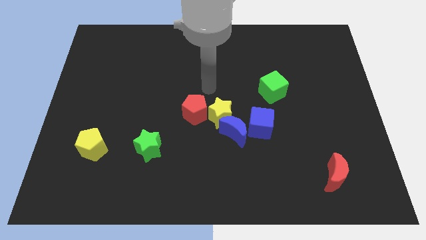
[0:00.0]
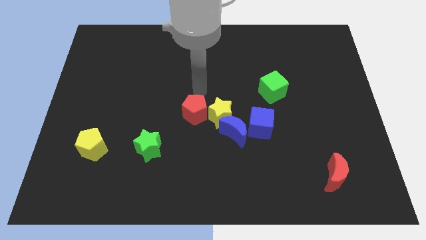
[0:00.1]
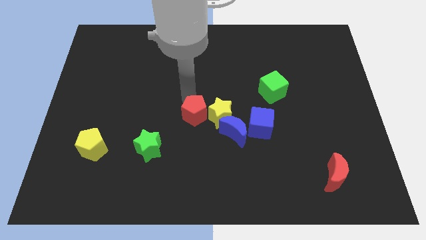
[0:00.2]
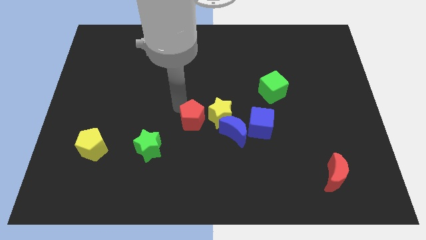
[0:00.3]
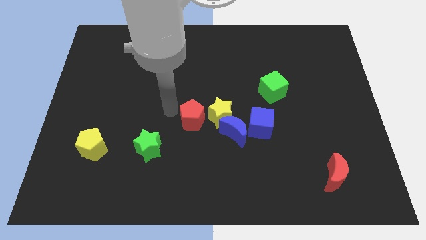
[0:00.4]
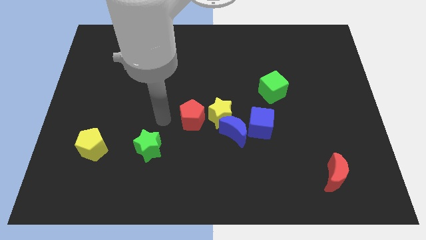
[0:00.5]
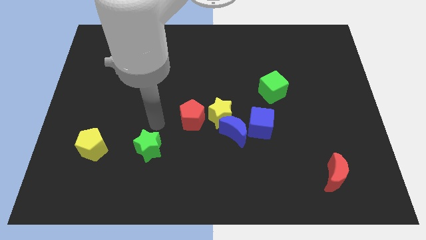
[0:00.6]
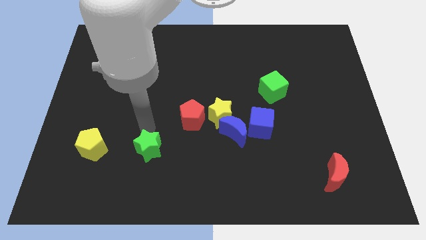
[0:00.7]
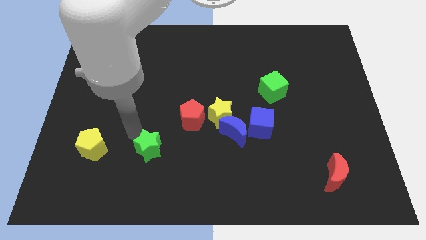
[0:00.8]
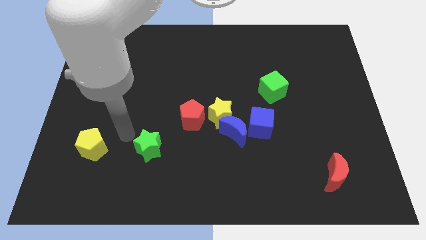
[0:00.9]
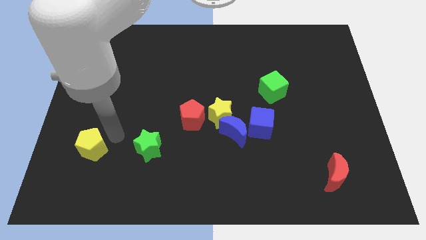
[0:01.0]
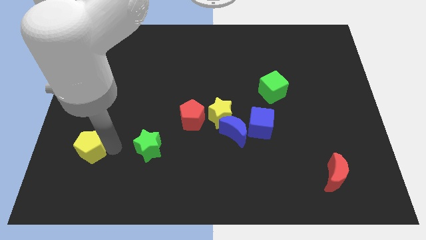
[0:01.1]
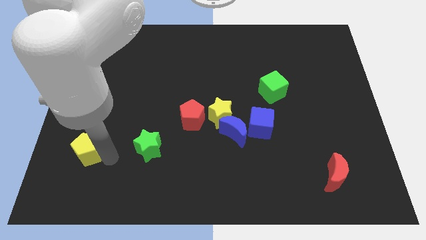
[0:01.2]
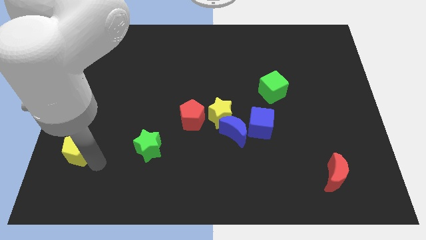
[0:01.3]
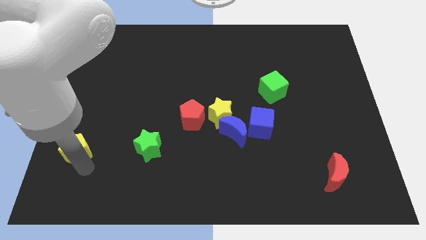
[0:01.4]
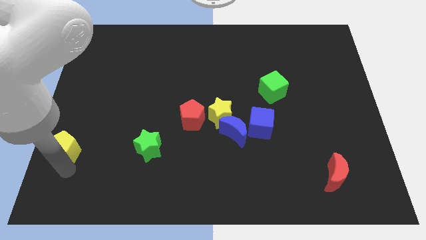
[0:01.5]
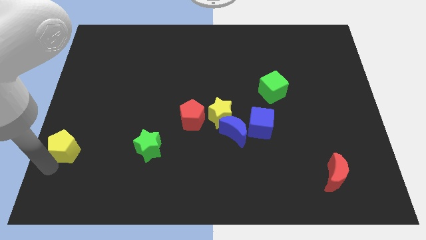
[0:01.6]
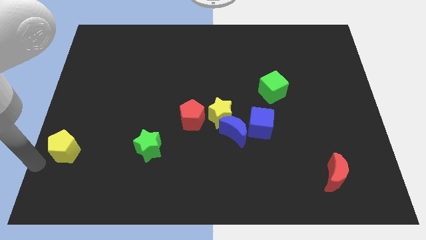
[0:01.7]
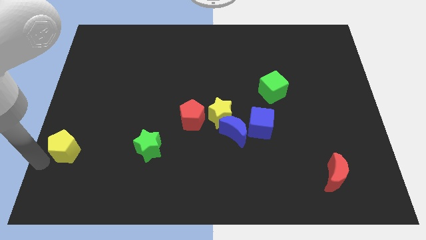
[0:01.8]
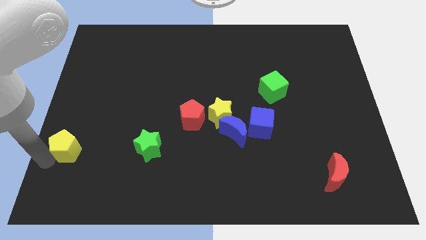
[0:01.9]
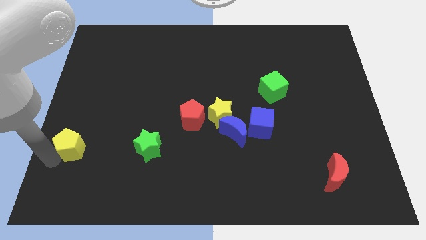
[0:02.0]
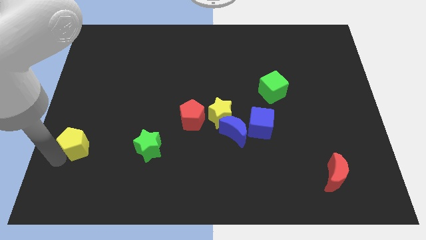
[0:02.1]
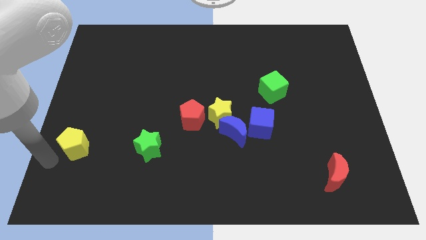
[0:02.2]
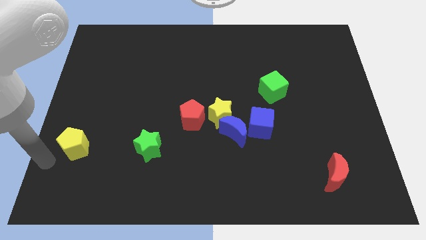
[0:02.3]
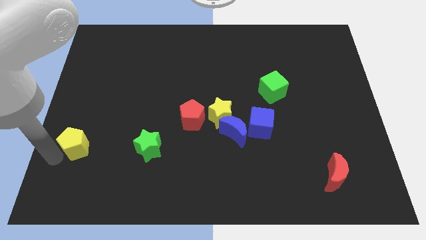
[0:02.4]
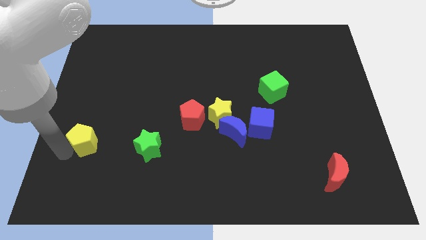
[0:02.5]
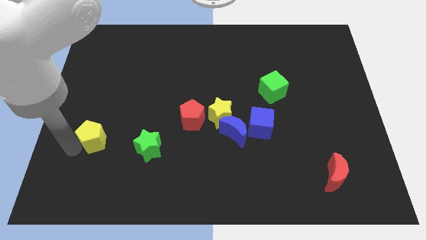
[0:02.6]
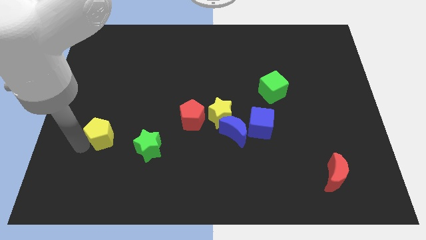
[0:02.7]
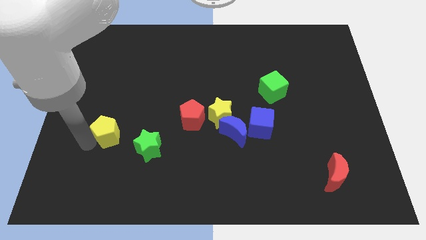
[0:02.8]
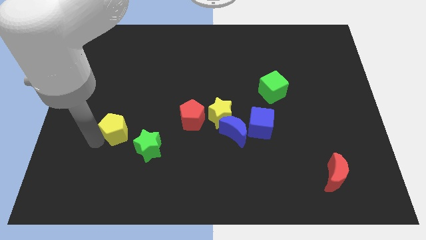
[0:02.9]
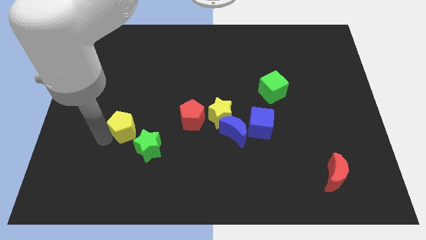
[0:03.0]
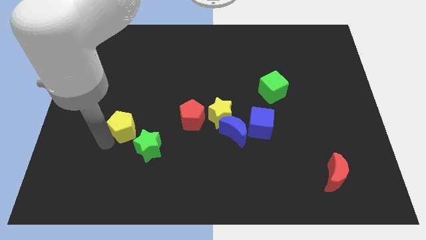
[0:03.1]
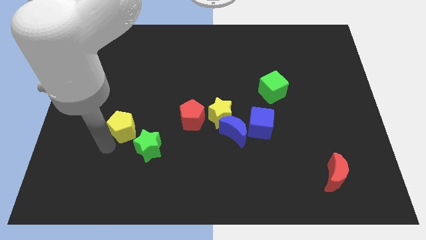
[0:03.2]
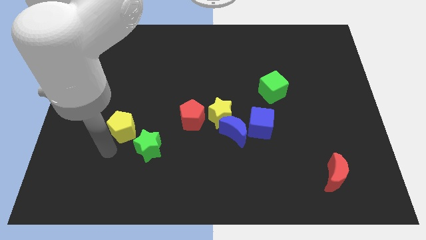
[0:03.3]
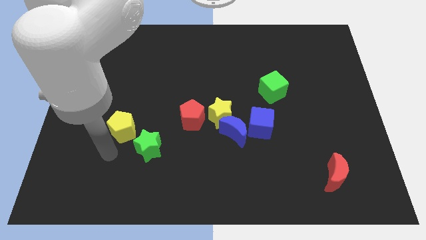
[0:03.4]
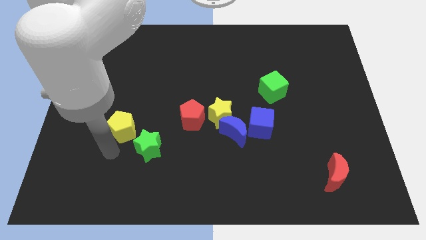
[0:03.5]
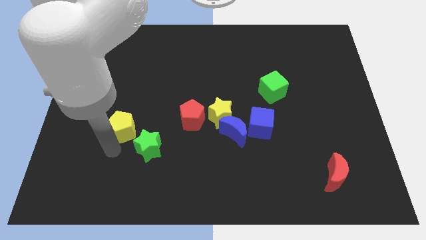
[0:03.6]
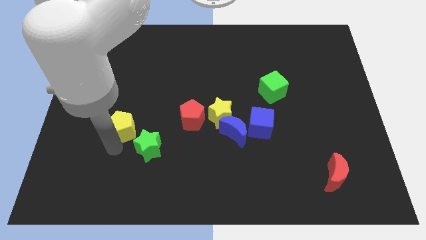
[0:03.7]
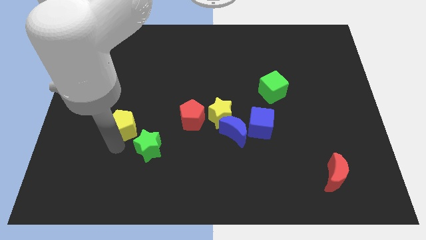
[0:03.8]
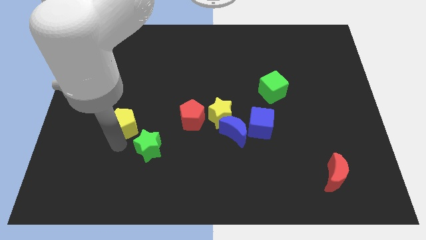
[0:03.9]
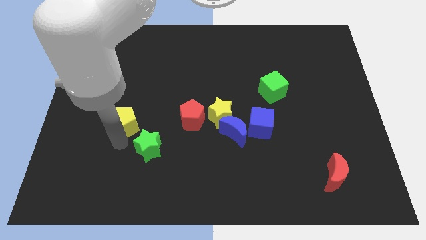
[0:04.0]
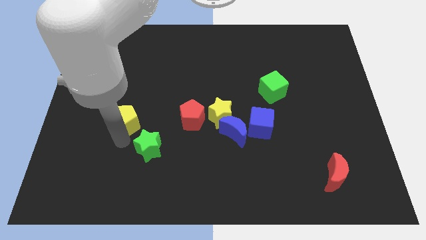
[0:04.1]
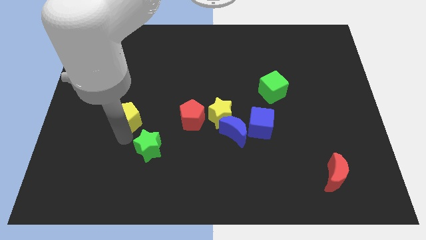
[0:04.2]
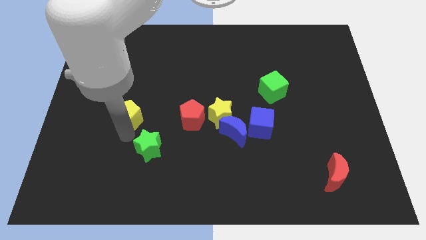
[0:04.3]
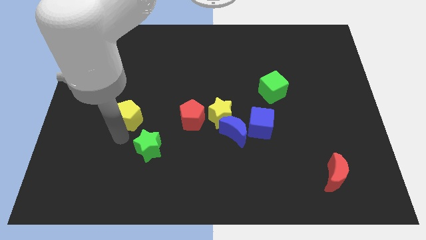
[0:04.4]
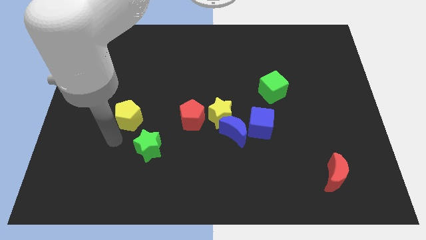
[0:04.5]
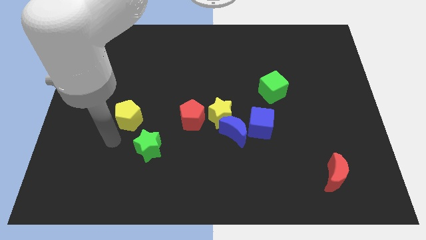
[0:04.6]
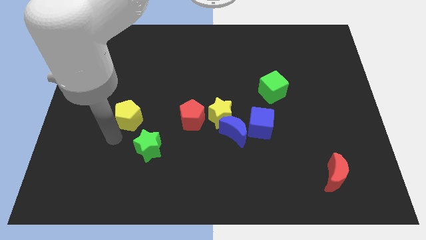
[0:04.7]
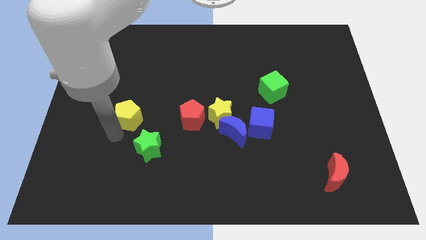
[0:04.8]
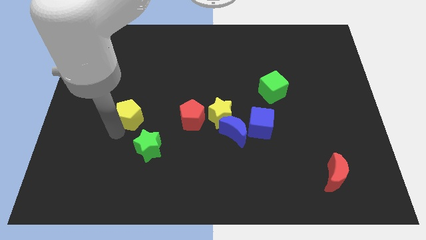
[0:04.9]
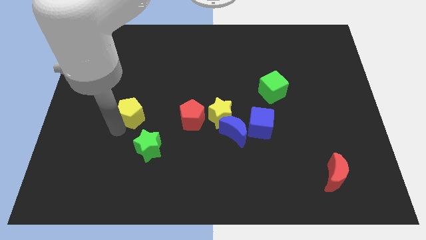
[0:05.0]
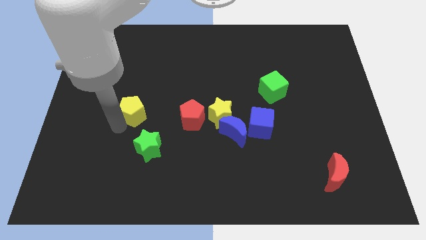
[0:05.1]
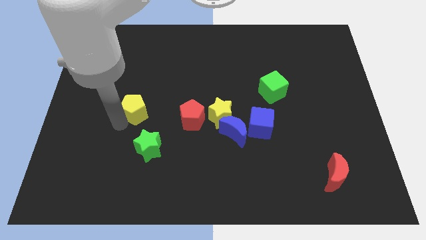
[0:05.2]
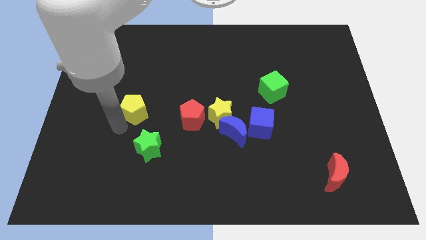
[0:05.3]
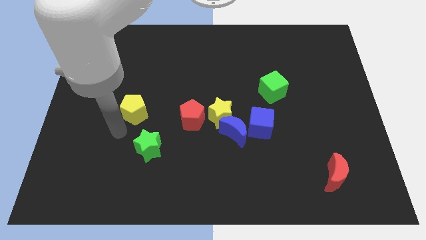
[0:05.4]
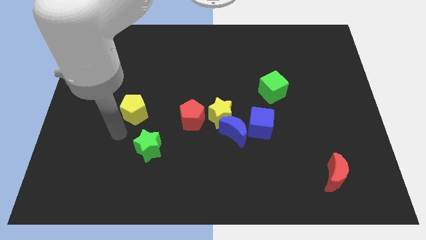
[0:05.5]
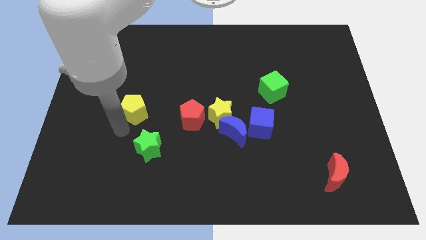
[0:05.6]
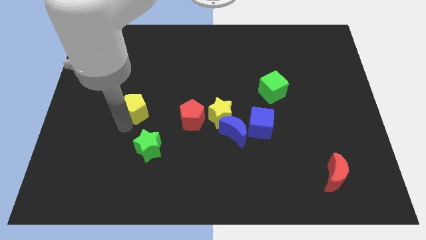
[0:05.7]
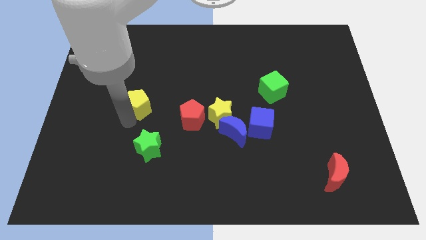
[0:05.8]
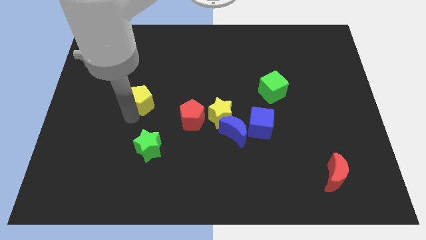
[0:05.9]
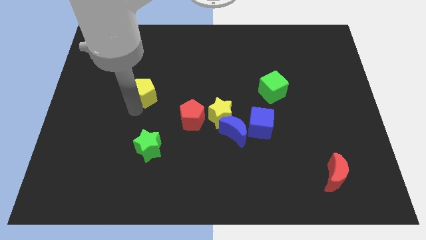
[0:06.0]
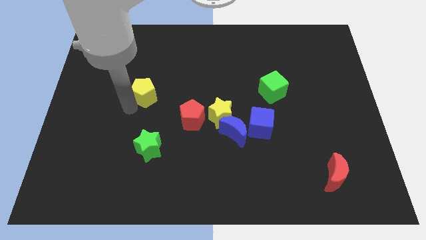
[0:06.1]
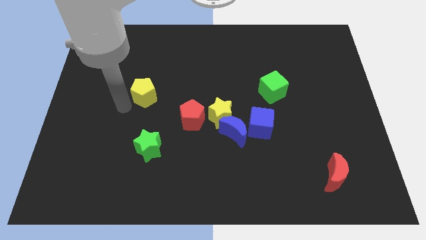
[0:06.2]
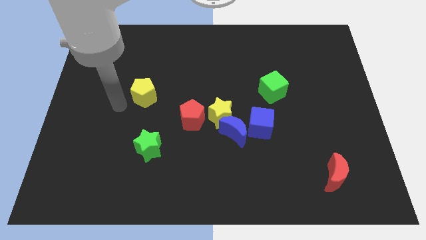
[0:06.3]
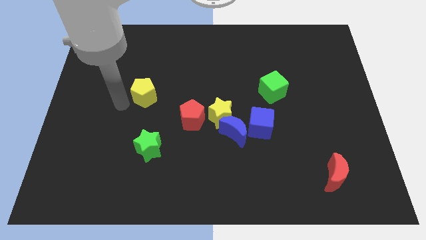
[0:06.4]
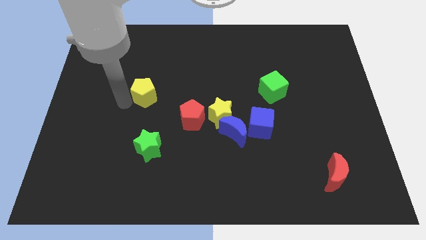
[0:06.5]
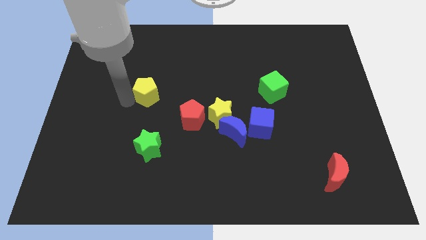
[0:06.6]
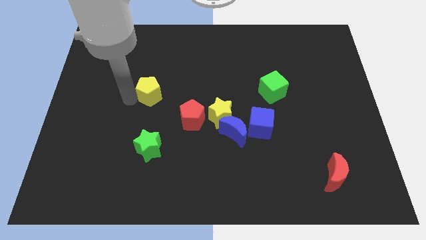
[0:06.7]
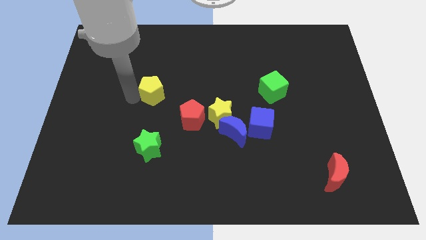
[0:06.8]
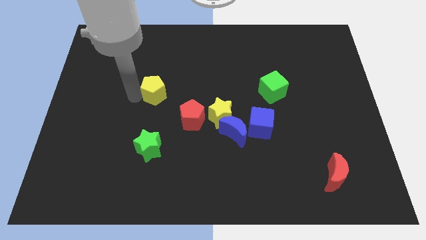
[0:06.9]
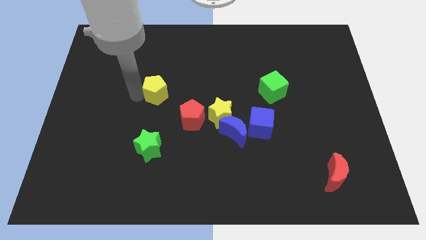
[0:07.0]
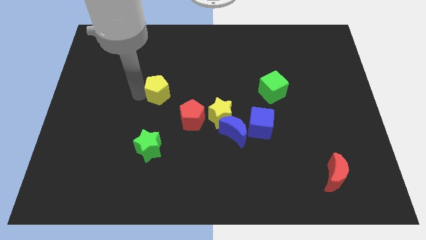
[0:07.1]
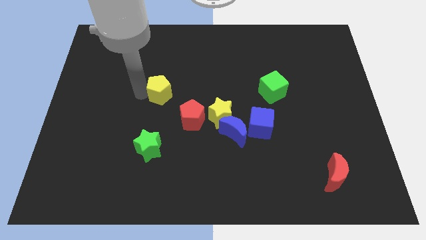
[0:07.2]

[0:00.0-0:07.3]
push the yellow pentagon up and to the right diagonally

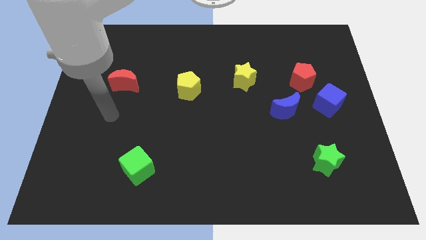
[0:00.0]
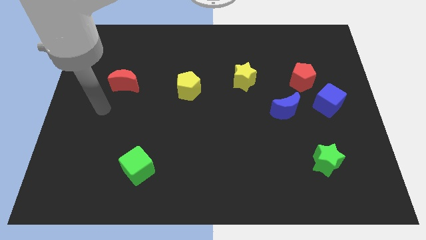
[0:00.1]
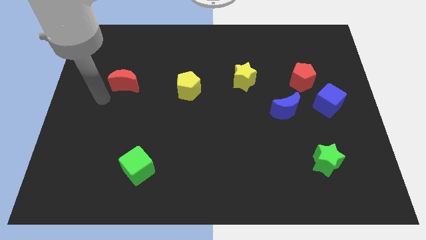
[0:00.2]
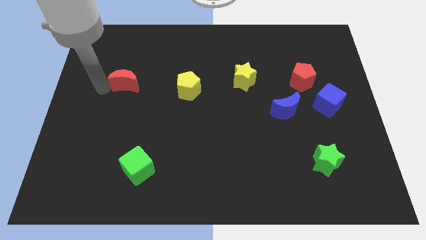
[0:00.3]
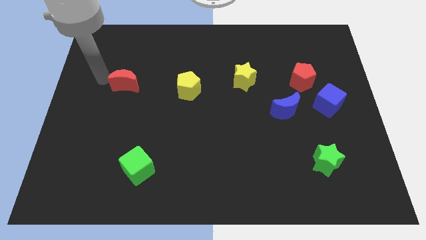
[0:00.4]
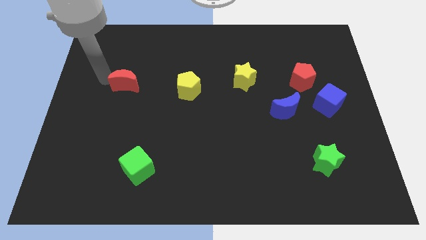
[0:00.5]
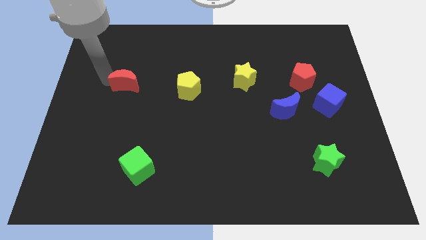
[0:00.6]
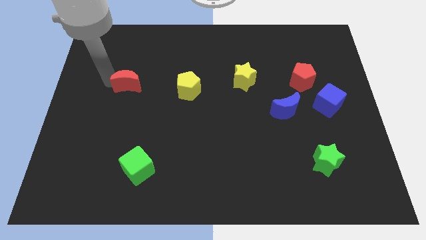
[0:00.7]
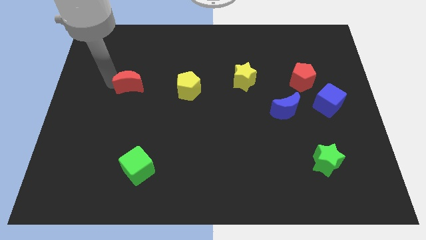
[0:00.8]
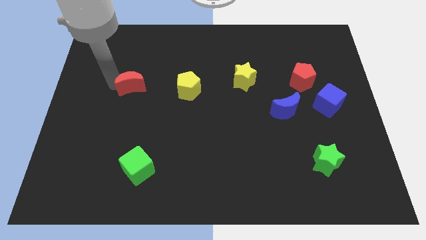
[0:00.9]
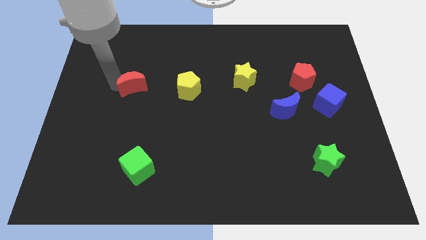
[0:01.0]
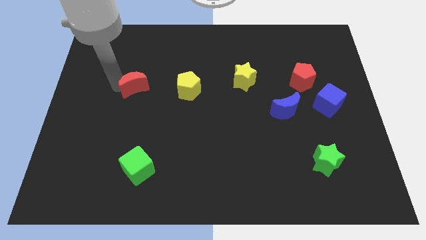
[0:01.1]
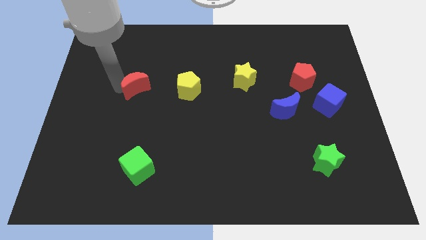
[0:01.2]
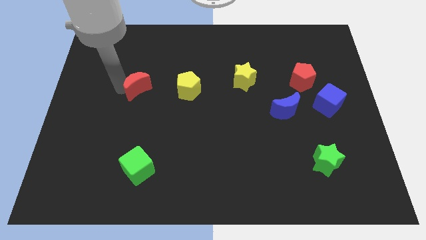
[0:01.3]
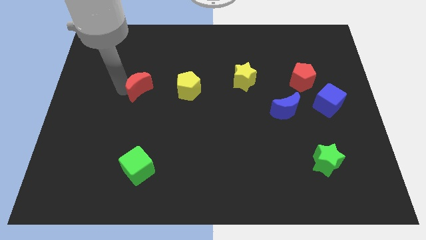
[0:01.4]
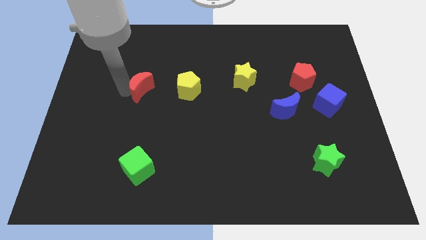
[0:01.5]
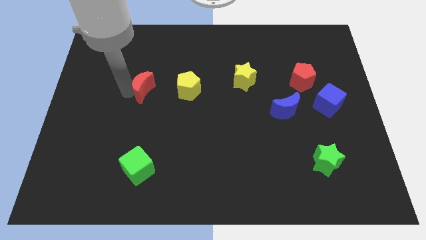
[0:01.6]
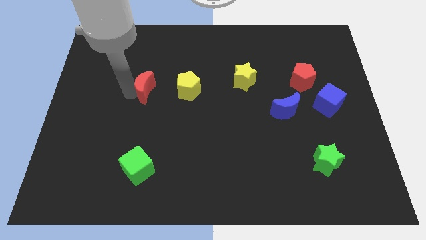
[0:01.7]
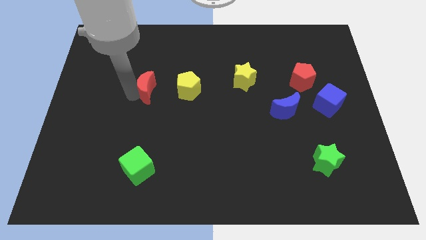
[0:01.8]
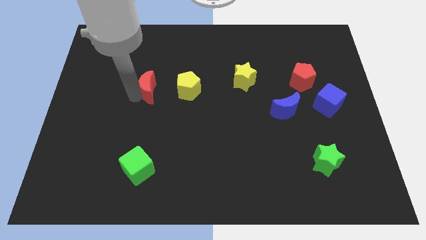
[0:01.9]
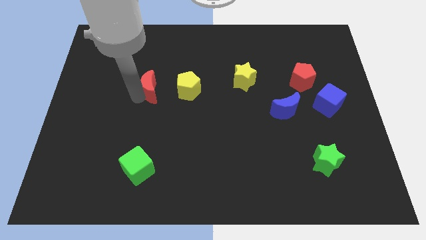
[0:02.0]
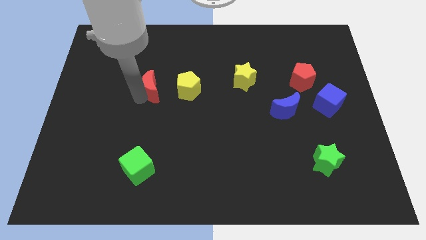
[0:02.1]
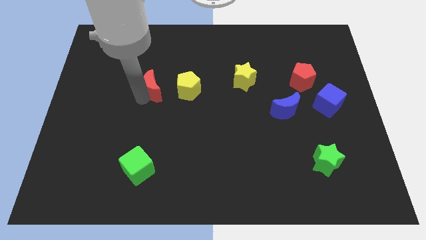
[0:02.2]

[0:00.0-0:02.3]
slightly push the red moon to the right
